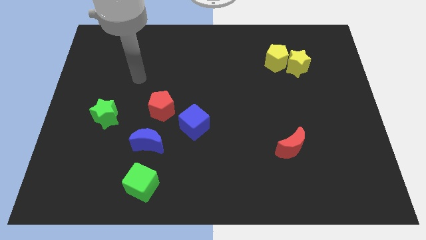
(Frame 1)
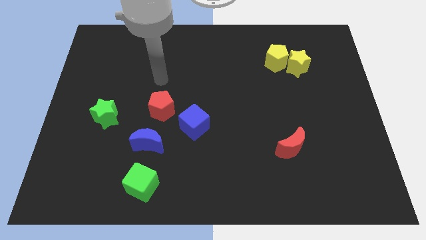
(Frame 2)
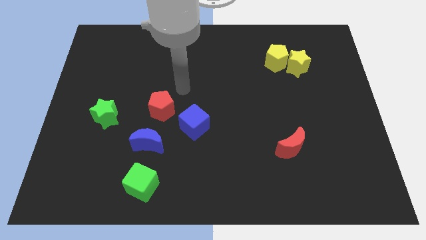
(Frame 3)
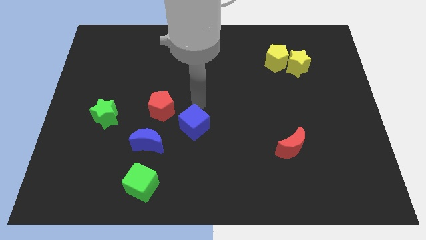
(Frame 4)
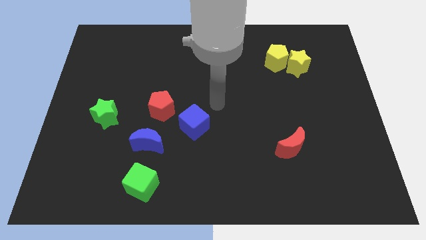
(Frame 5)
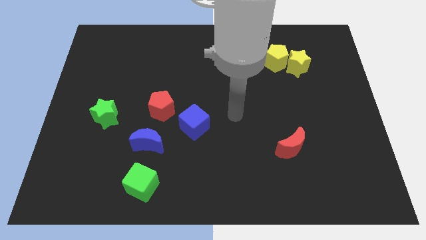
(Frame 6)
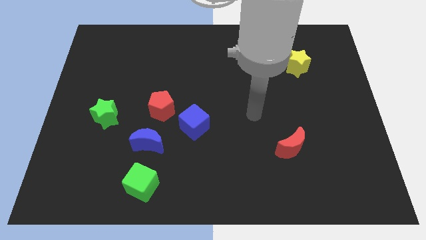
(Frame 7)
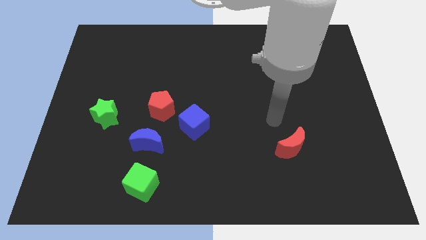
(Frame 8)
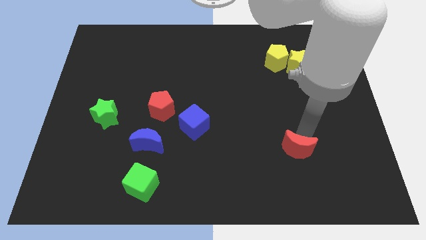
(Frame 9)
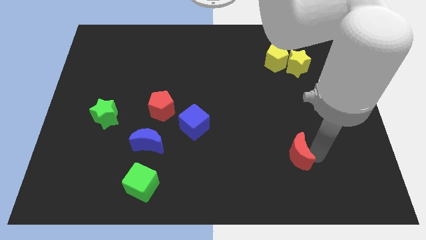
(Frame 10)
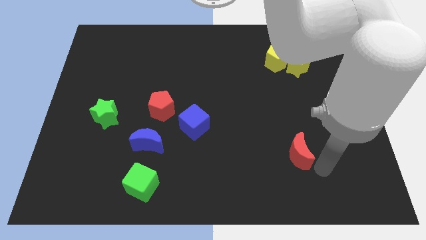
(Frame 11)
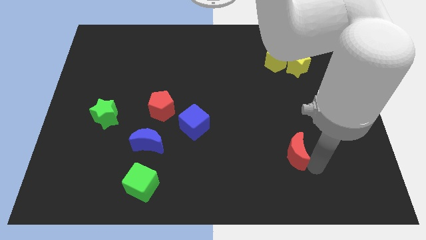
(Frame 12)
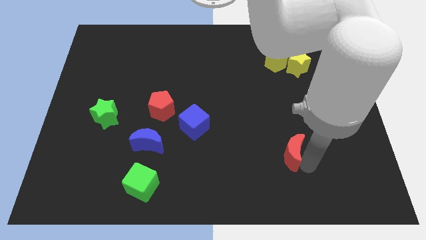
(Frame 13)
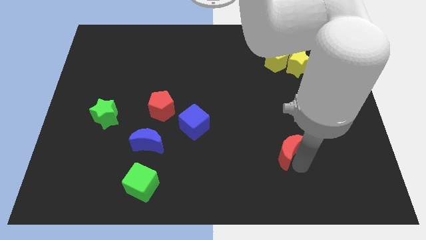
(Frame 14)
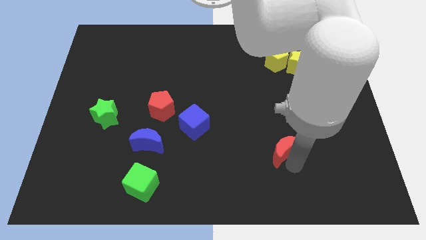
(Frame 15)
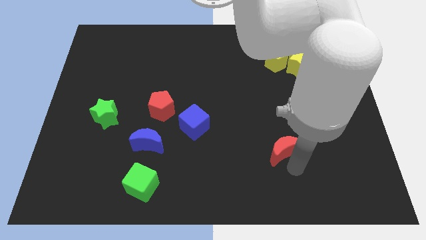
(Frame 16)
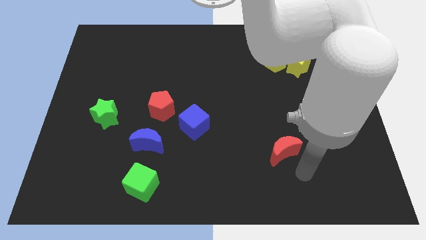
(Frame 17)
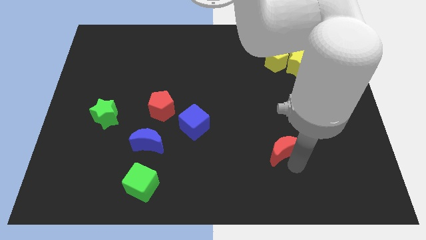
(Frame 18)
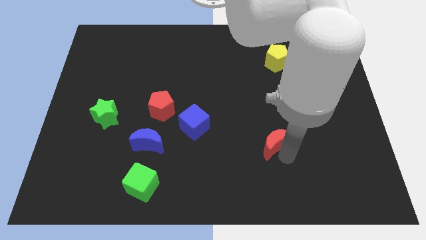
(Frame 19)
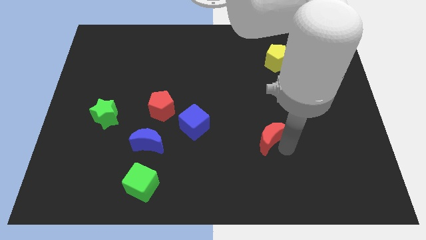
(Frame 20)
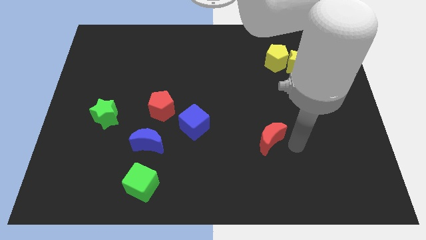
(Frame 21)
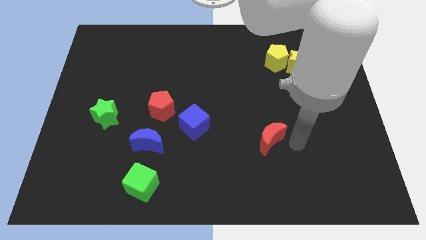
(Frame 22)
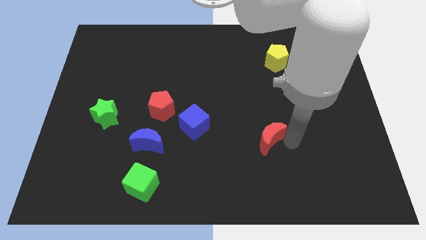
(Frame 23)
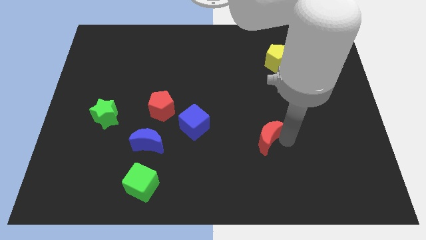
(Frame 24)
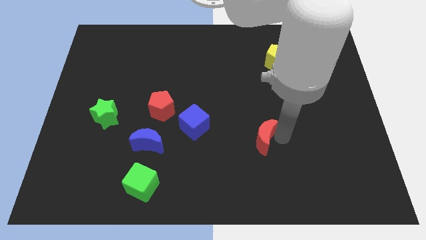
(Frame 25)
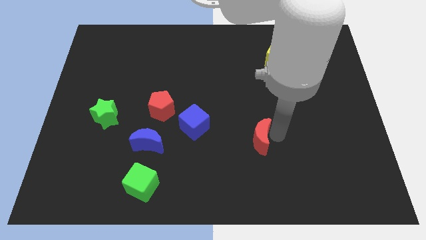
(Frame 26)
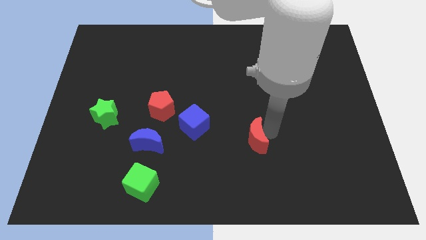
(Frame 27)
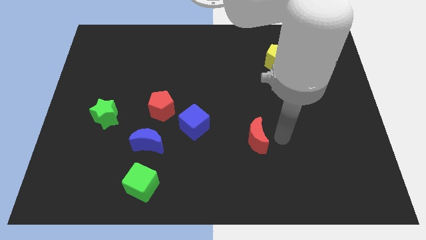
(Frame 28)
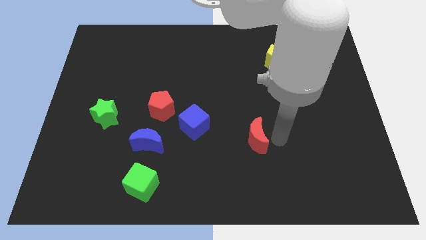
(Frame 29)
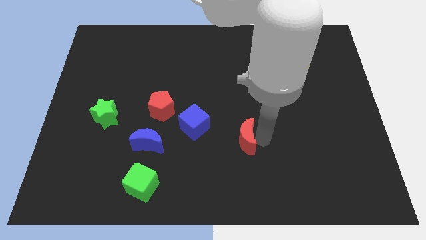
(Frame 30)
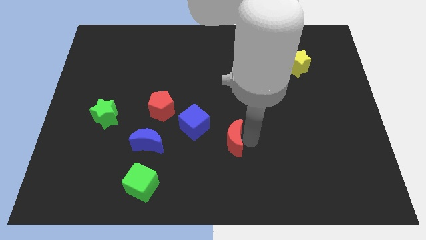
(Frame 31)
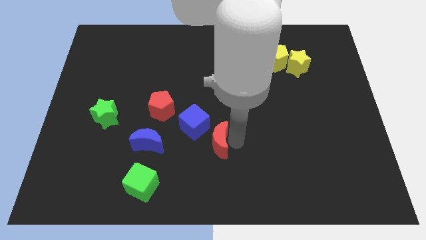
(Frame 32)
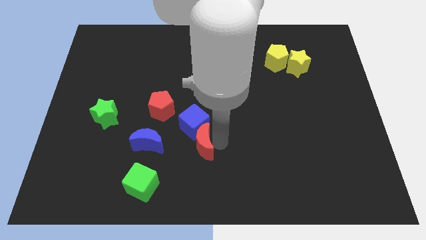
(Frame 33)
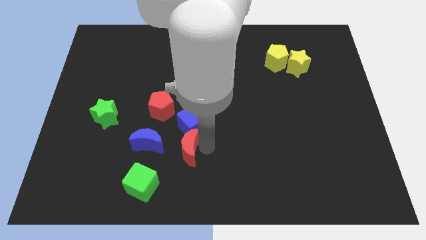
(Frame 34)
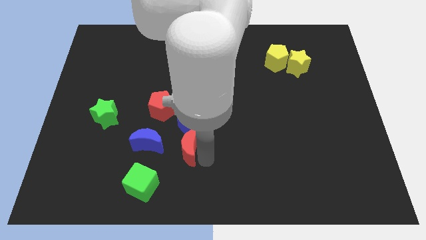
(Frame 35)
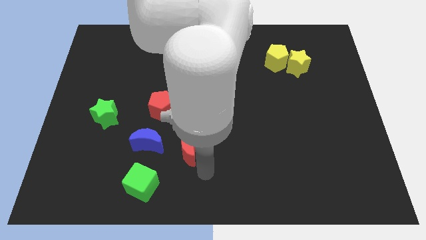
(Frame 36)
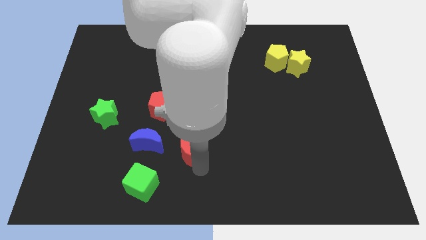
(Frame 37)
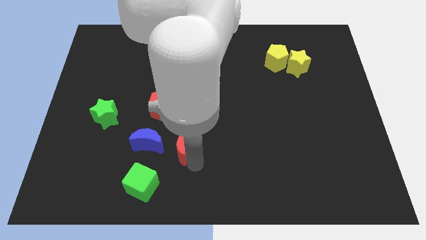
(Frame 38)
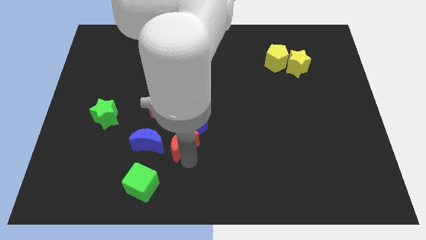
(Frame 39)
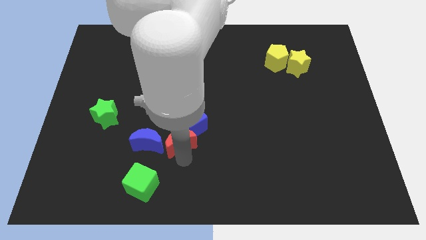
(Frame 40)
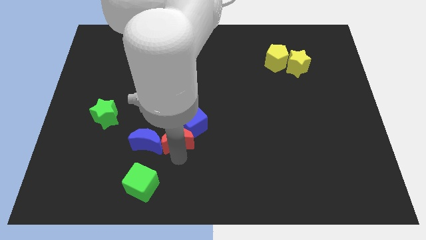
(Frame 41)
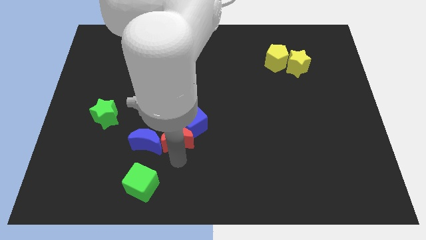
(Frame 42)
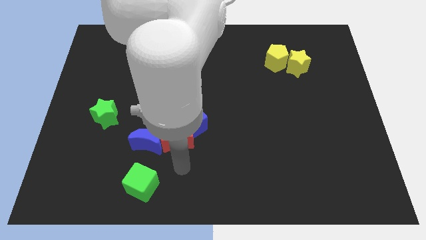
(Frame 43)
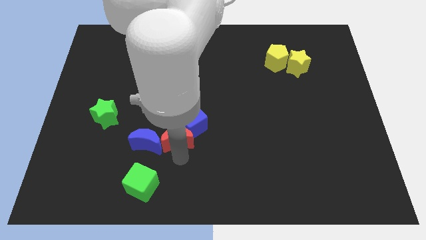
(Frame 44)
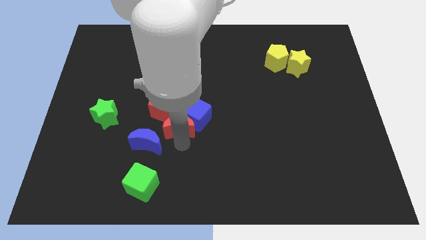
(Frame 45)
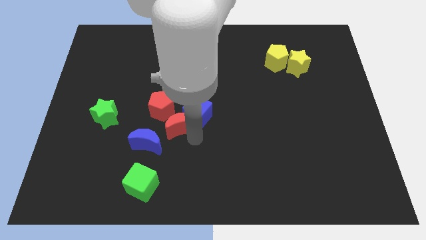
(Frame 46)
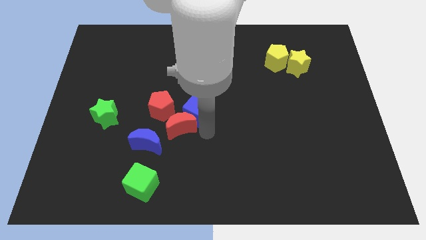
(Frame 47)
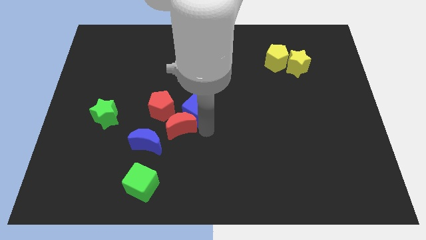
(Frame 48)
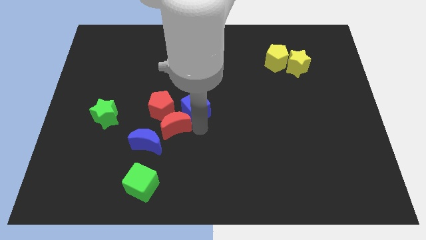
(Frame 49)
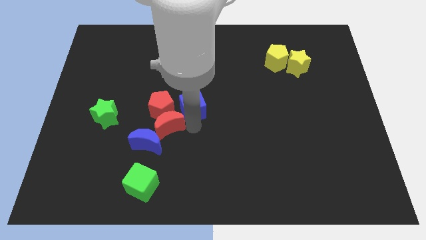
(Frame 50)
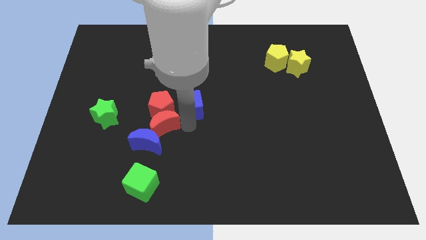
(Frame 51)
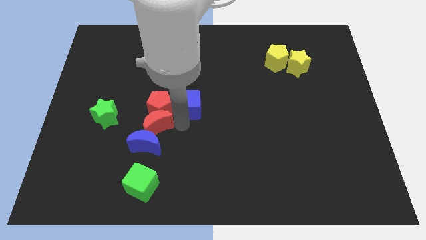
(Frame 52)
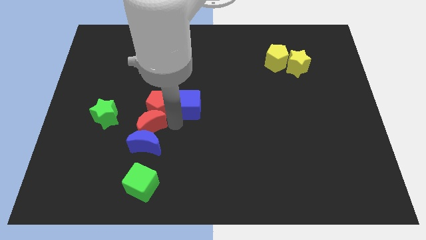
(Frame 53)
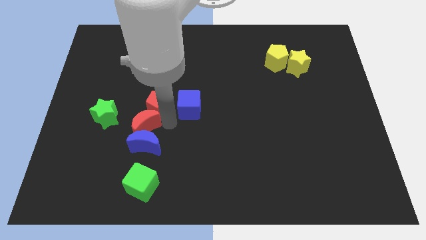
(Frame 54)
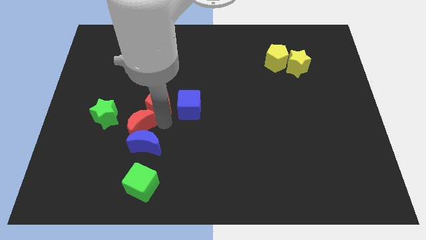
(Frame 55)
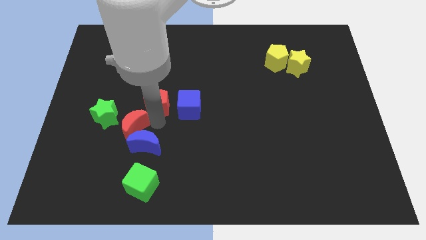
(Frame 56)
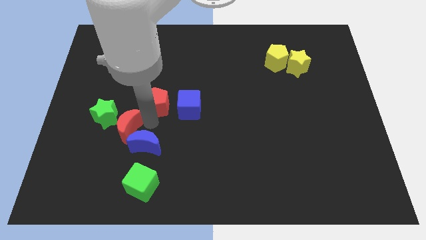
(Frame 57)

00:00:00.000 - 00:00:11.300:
move the red moon towards the green star

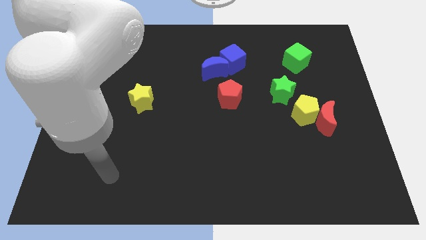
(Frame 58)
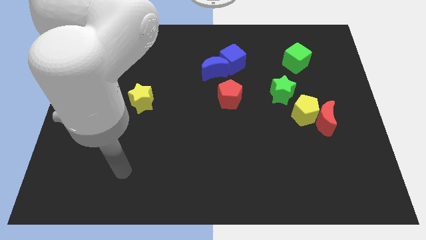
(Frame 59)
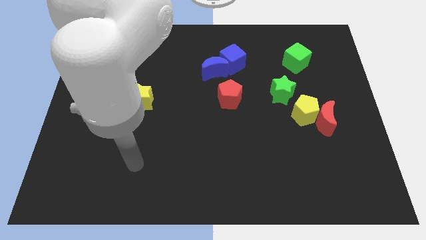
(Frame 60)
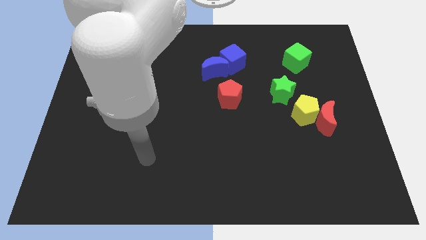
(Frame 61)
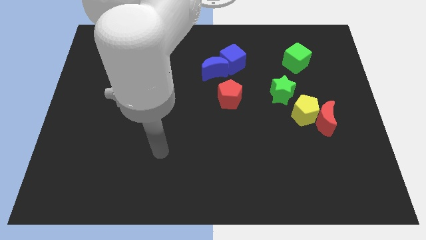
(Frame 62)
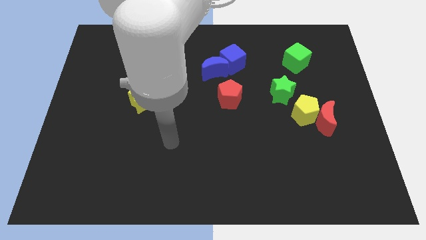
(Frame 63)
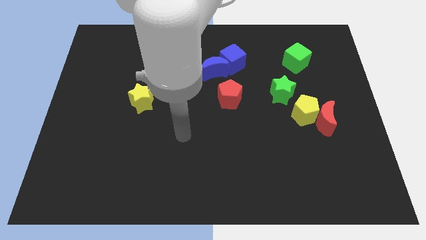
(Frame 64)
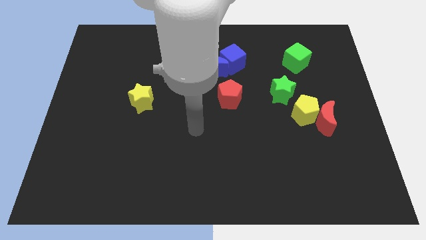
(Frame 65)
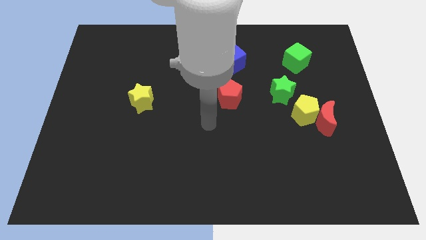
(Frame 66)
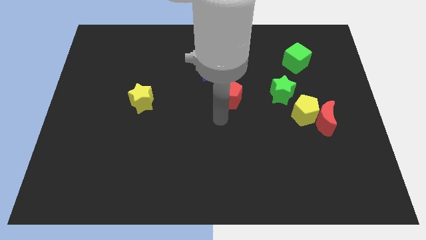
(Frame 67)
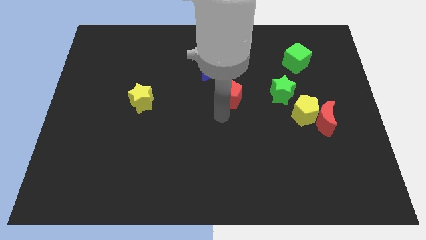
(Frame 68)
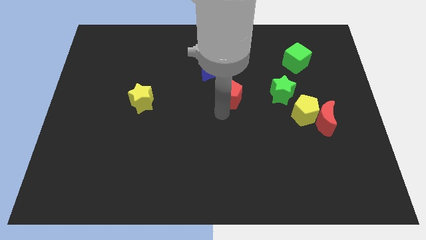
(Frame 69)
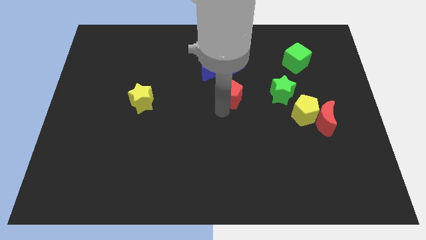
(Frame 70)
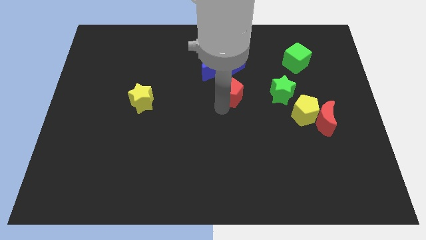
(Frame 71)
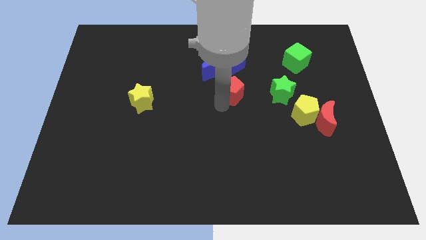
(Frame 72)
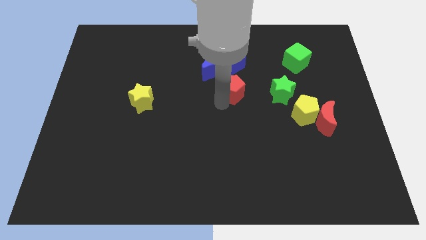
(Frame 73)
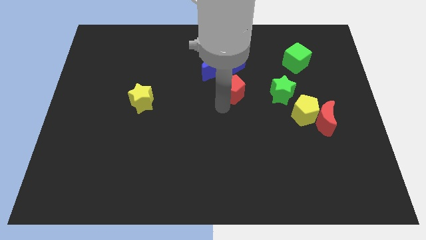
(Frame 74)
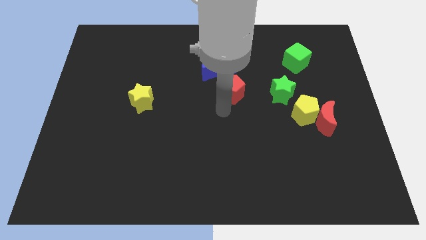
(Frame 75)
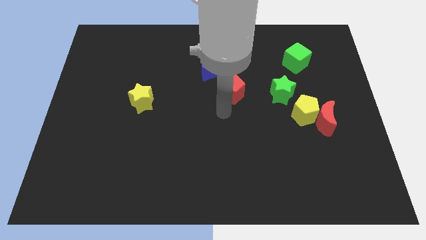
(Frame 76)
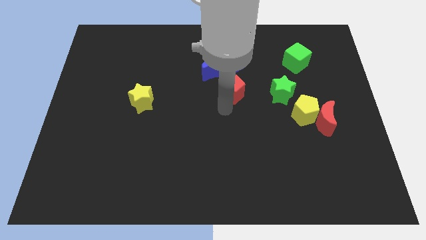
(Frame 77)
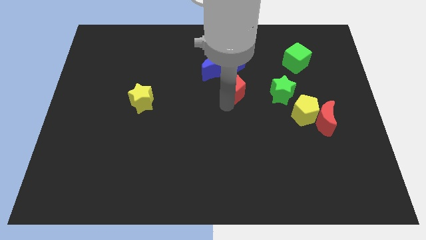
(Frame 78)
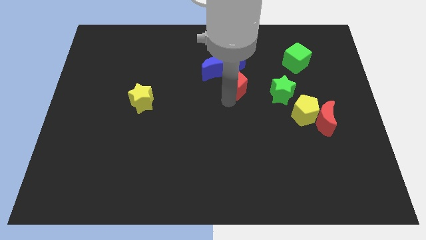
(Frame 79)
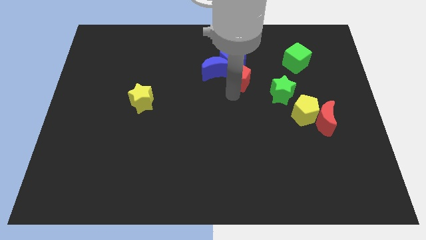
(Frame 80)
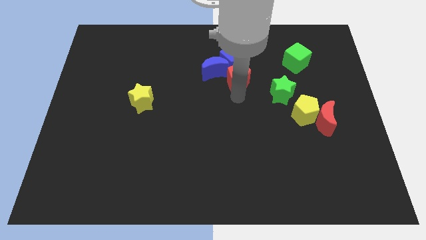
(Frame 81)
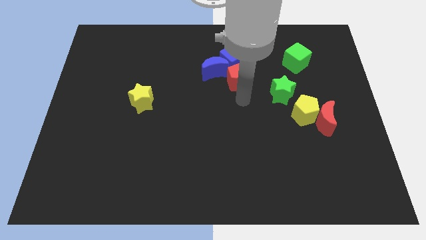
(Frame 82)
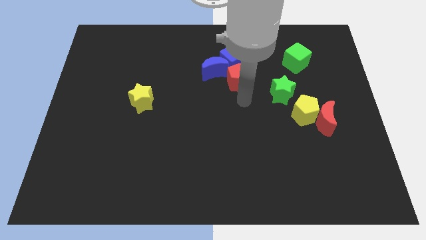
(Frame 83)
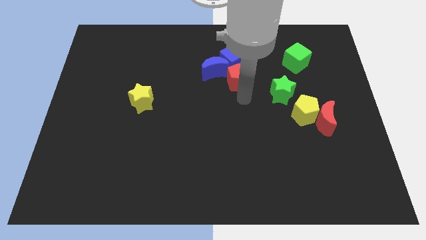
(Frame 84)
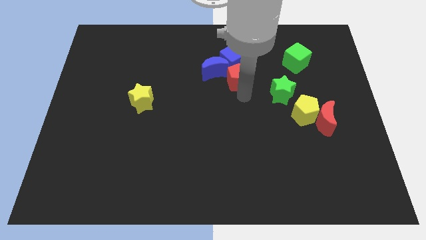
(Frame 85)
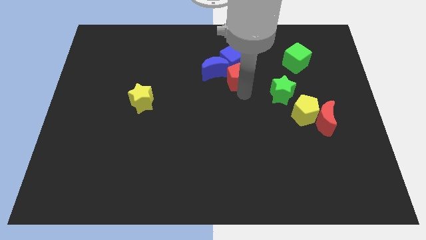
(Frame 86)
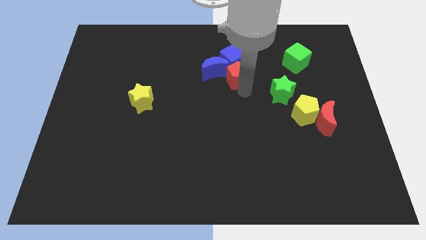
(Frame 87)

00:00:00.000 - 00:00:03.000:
move the red pentagon close to the blue cube
